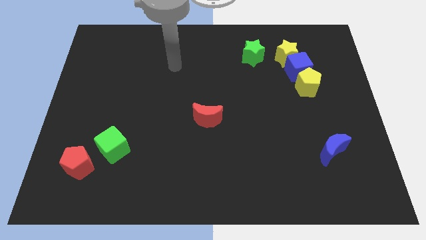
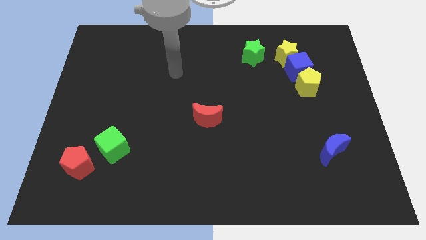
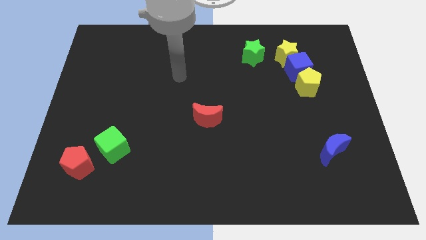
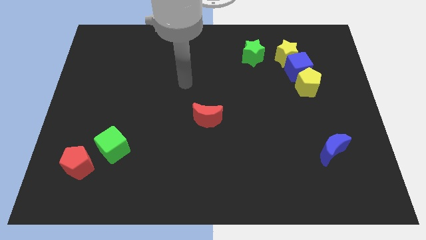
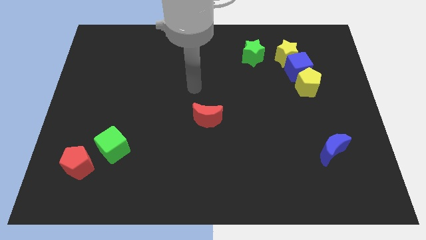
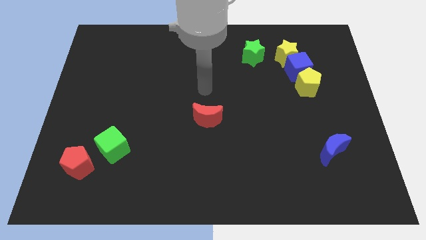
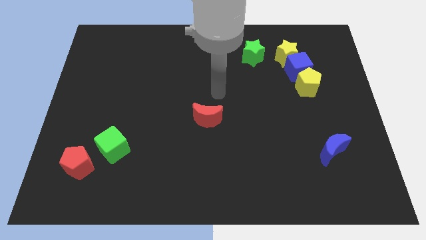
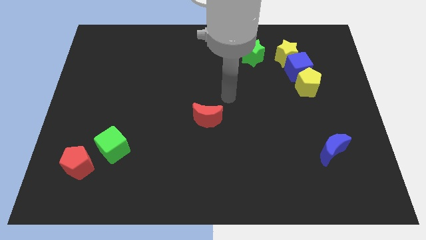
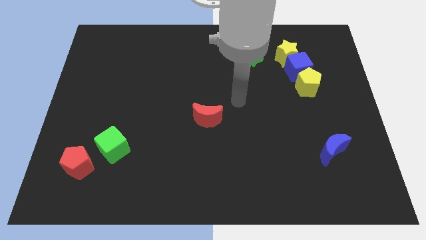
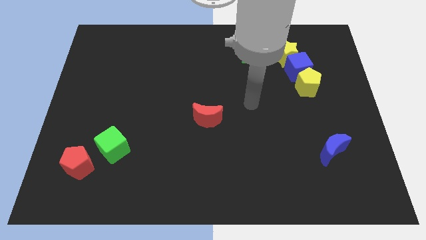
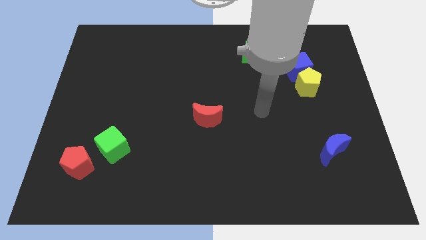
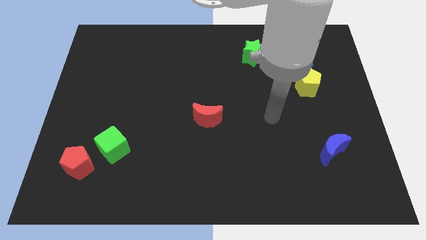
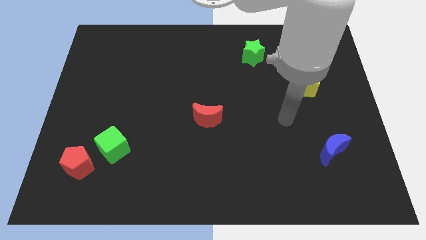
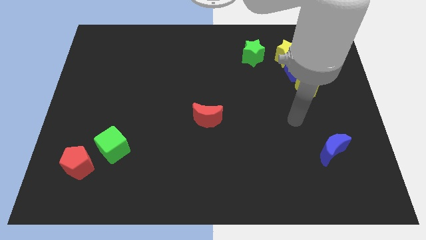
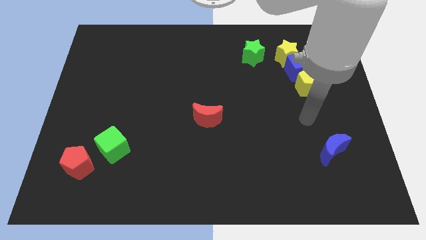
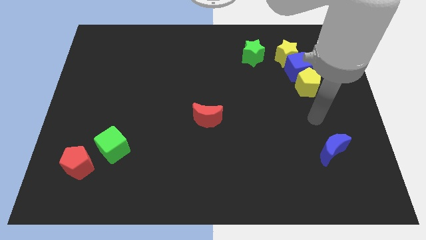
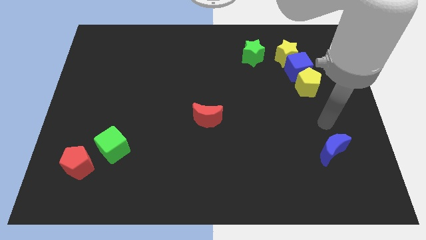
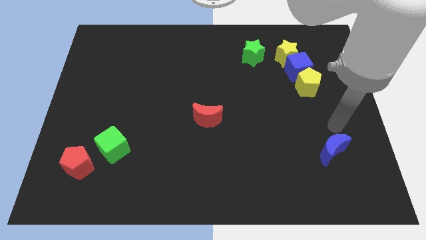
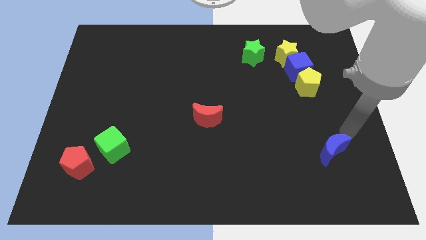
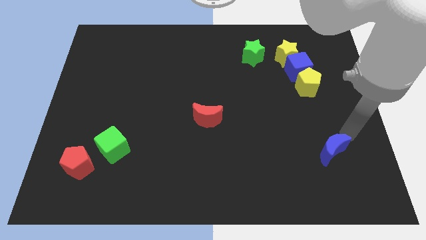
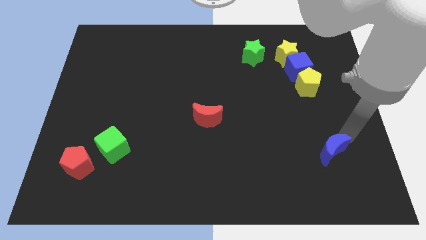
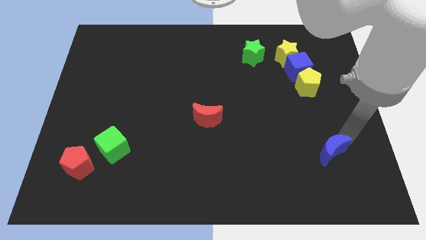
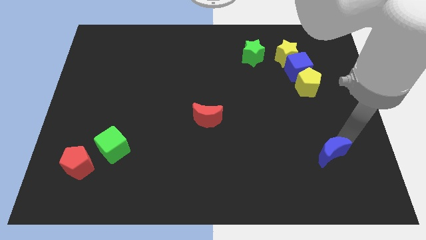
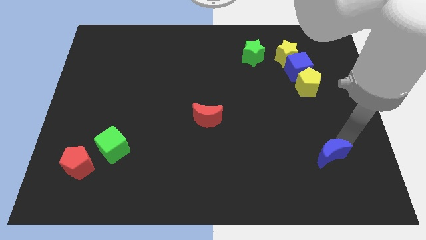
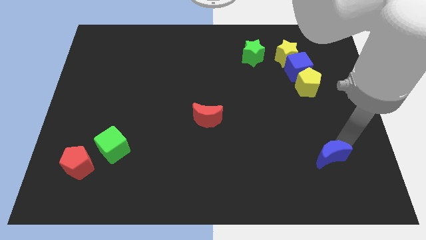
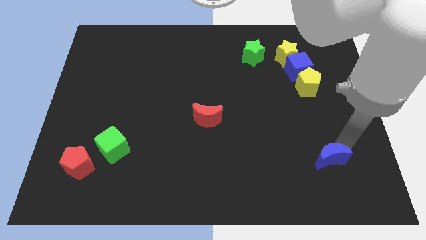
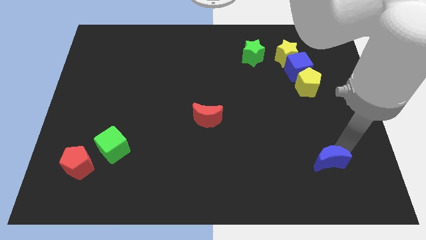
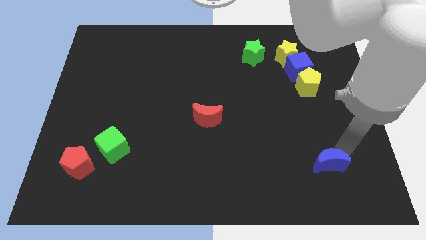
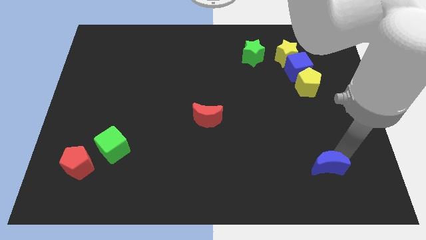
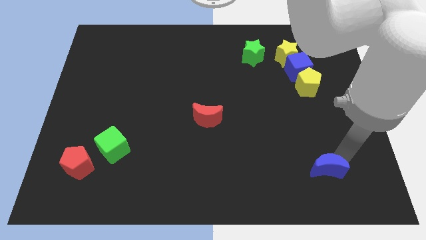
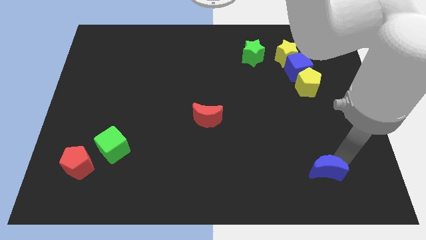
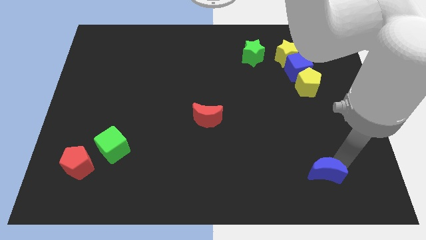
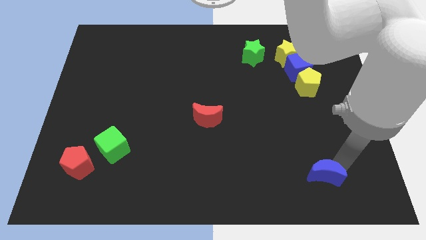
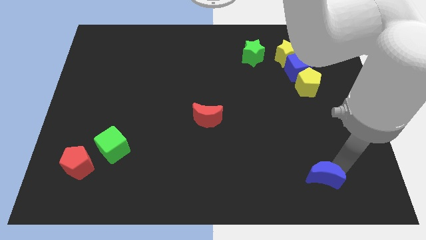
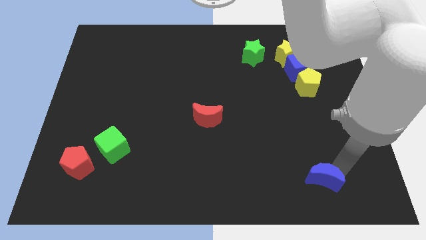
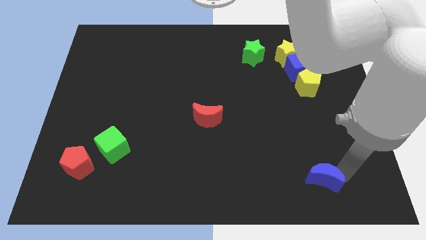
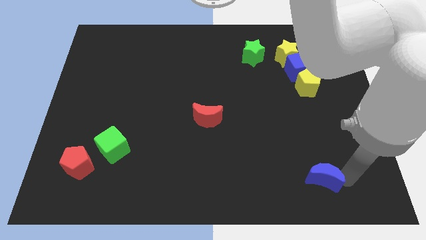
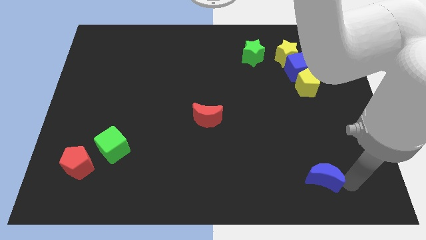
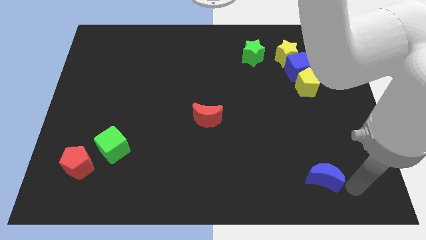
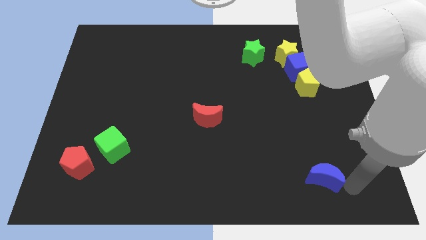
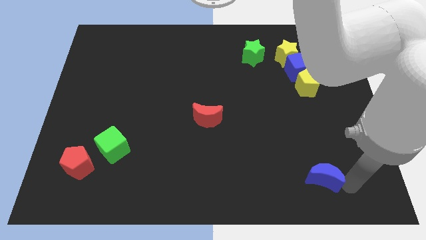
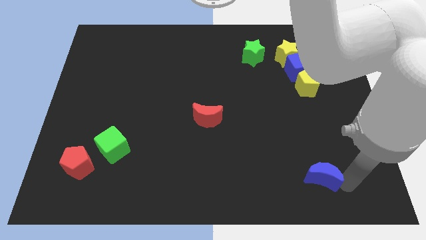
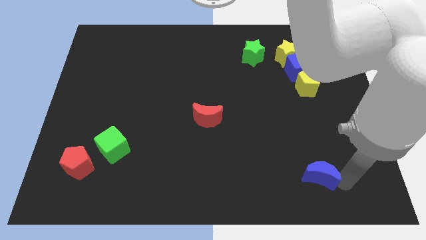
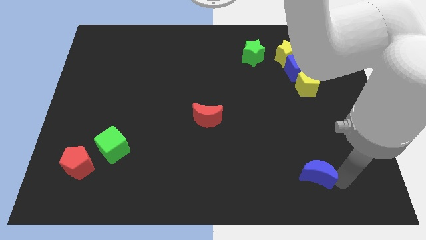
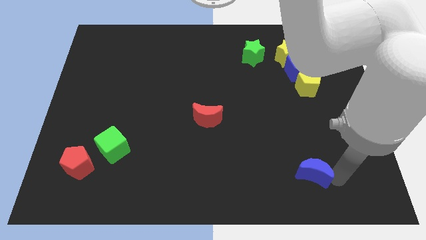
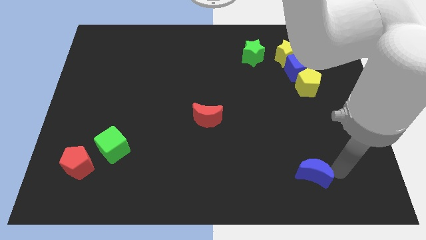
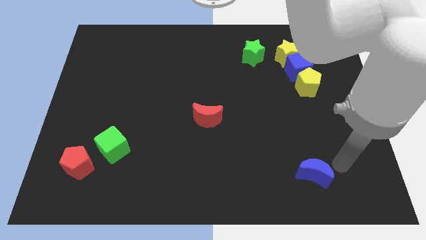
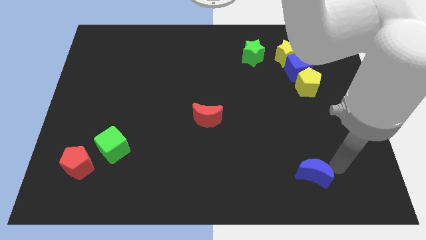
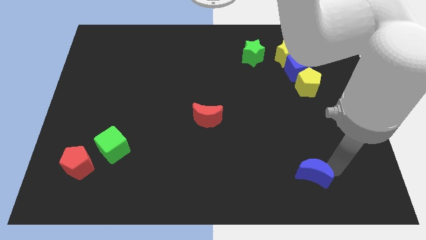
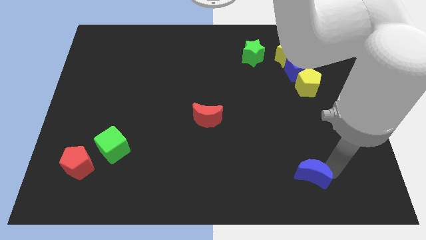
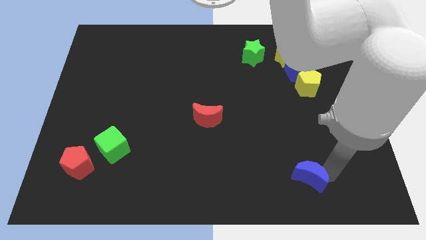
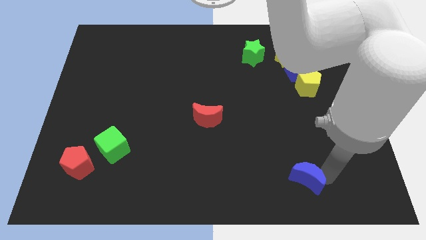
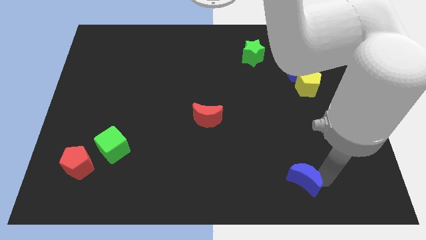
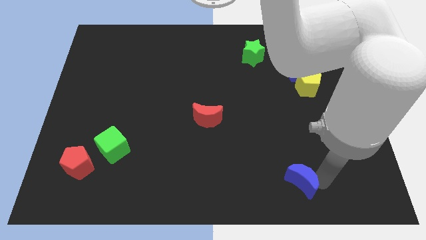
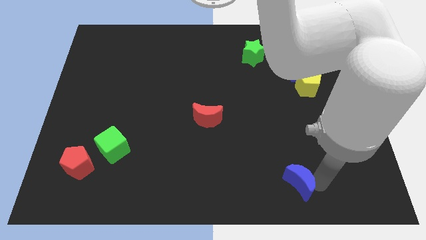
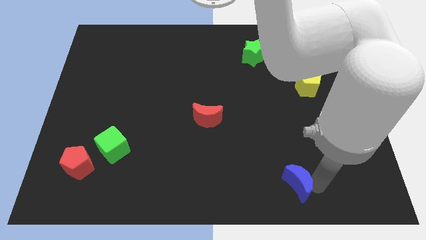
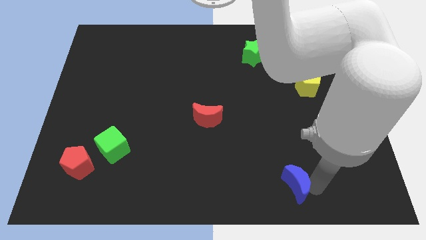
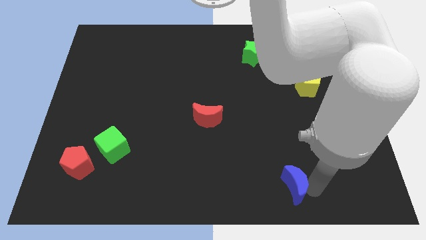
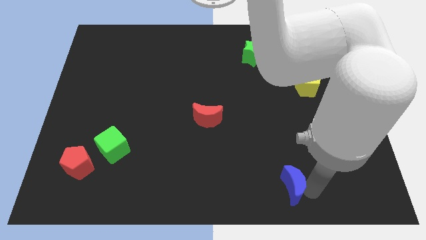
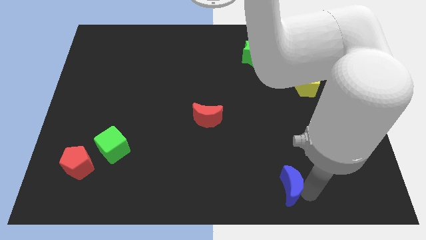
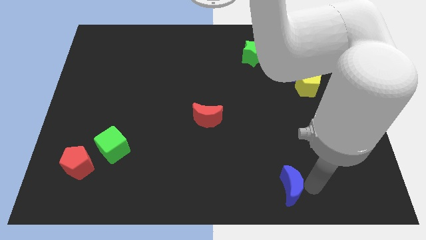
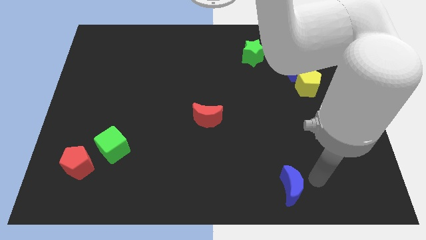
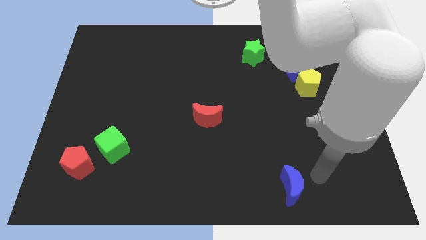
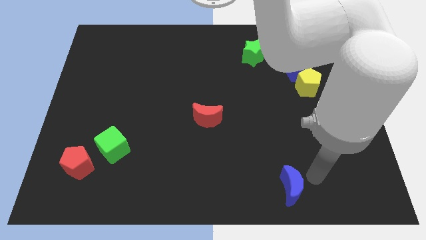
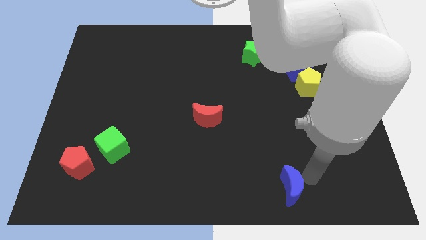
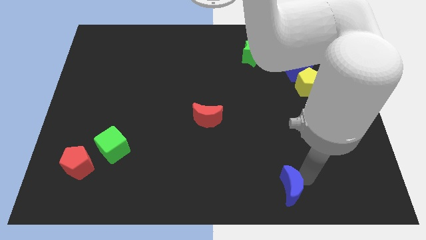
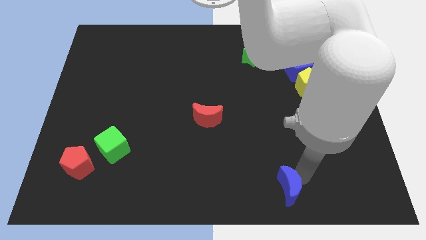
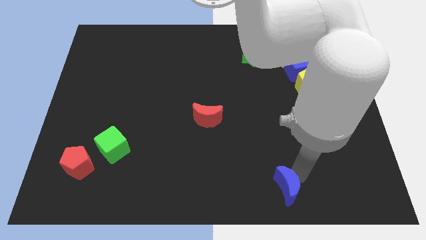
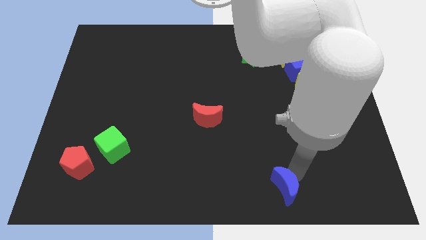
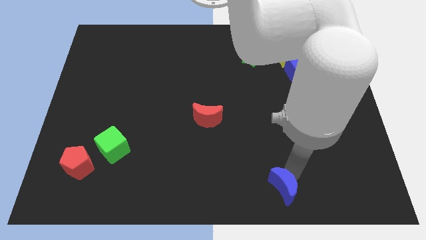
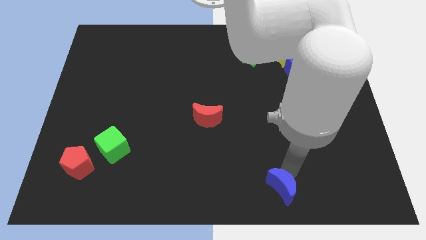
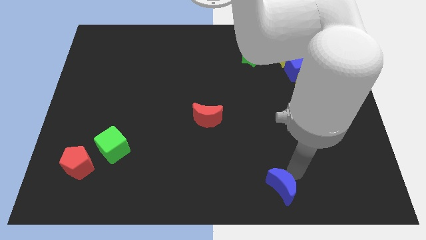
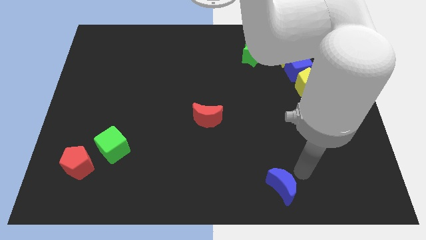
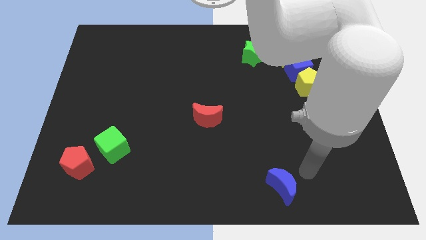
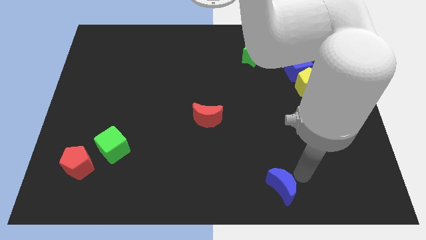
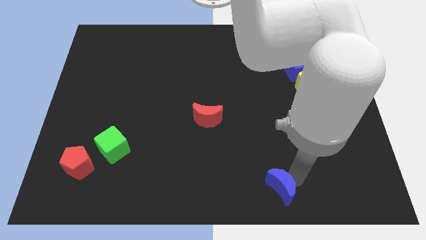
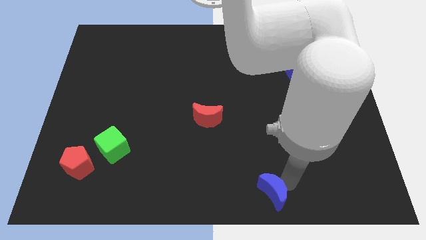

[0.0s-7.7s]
move the blue moon to the bottom
